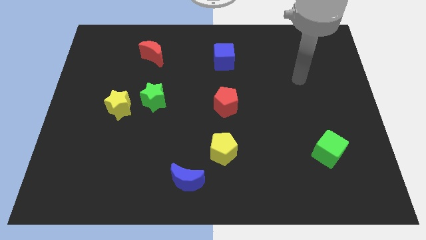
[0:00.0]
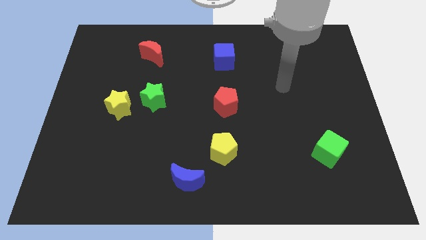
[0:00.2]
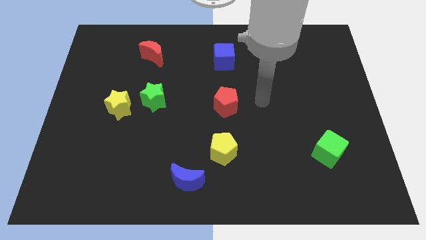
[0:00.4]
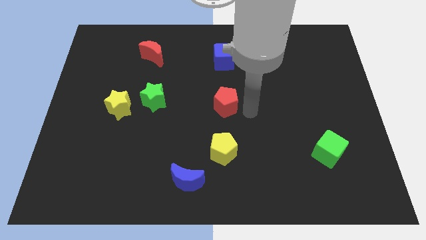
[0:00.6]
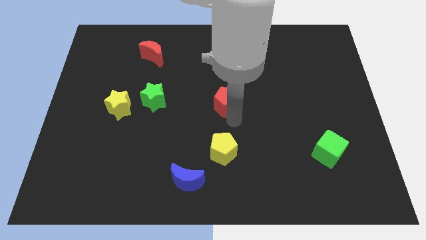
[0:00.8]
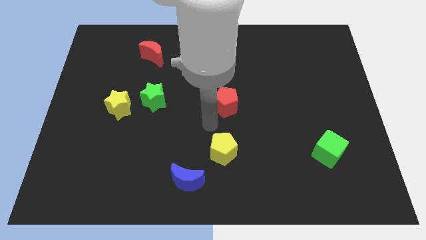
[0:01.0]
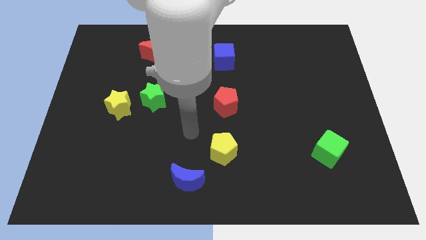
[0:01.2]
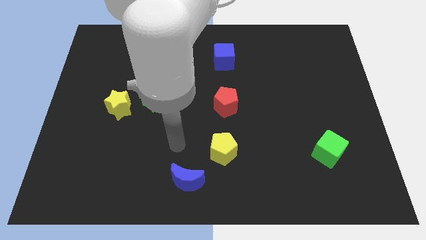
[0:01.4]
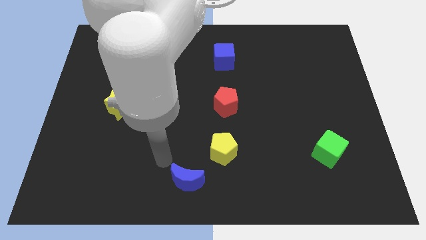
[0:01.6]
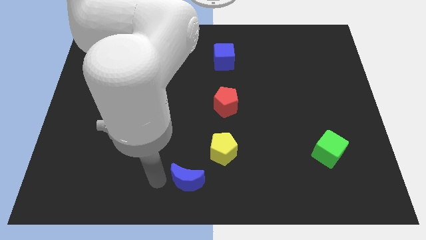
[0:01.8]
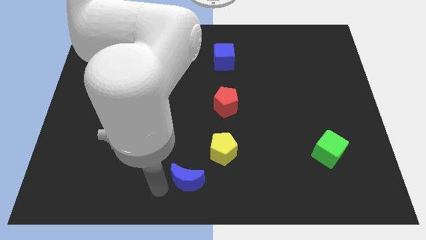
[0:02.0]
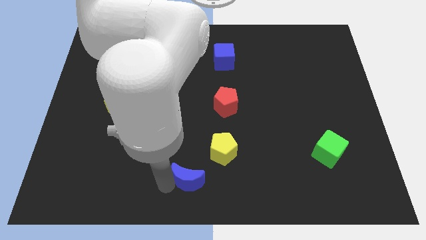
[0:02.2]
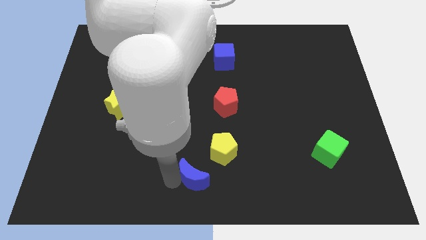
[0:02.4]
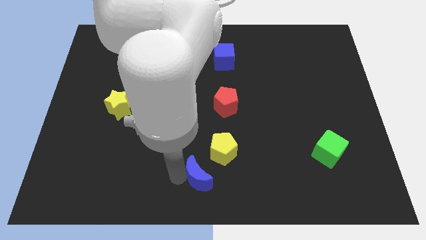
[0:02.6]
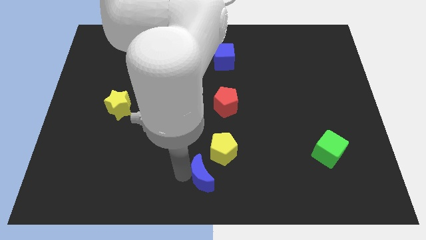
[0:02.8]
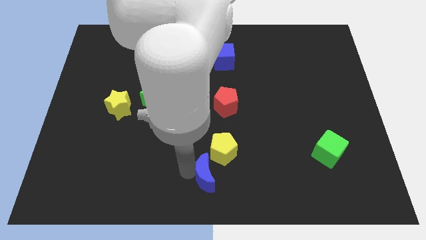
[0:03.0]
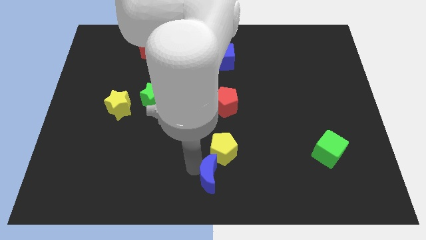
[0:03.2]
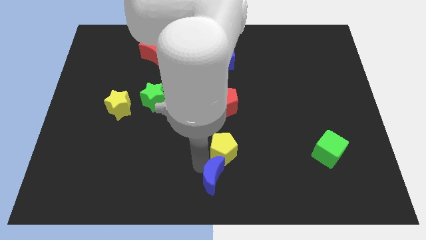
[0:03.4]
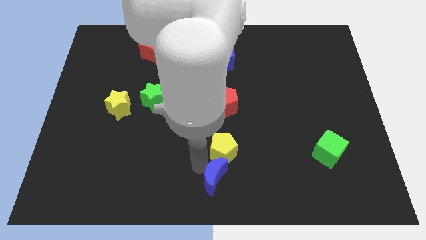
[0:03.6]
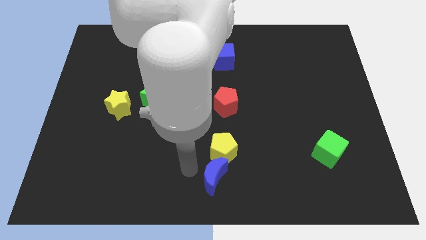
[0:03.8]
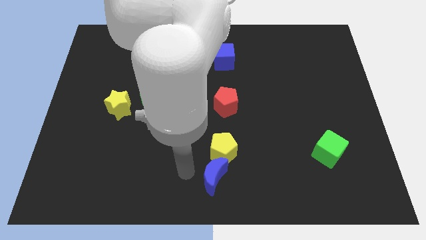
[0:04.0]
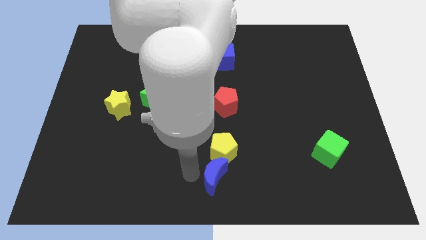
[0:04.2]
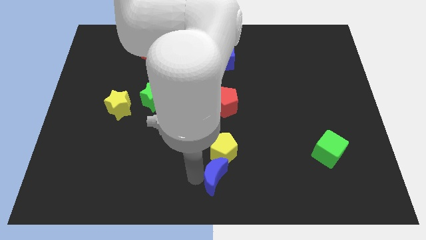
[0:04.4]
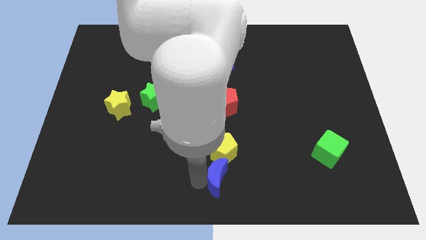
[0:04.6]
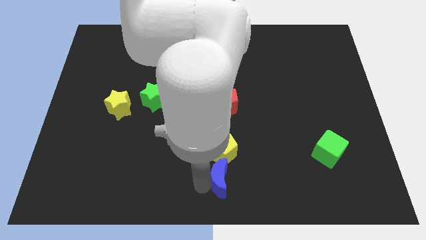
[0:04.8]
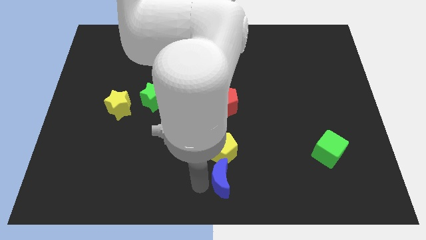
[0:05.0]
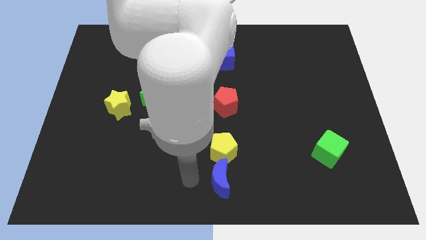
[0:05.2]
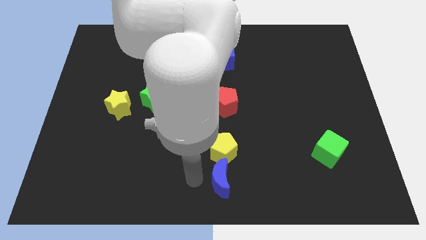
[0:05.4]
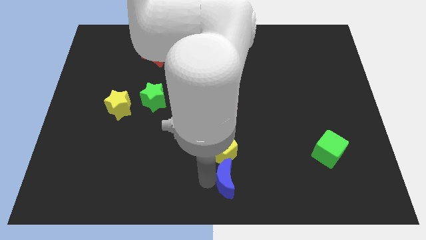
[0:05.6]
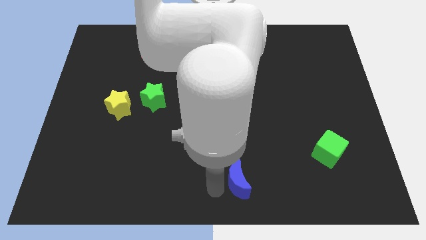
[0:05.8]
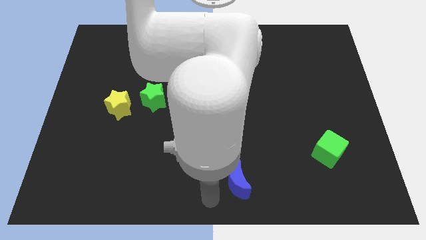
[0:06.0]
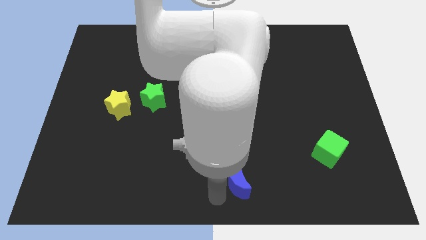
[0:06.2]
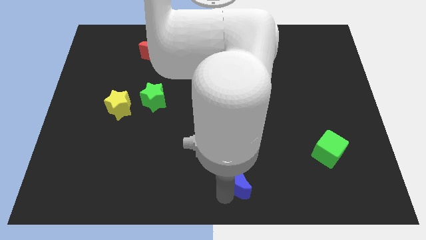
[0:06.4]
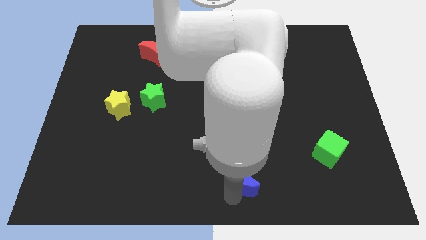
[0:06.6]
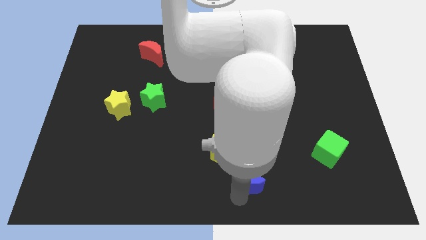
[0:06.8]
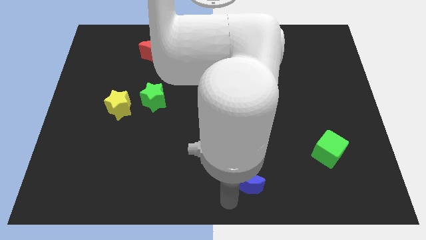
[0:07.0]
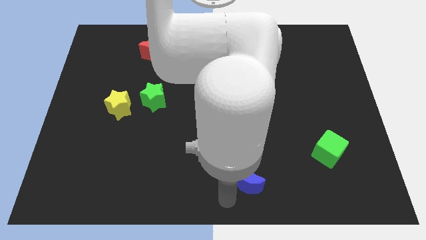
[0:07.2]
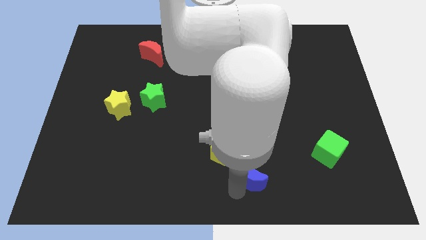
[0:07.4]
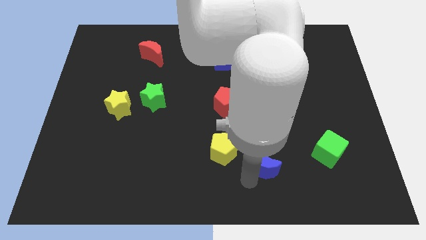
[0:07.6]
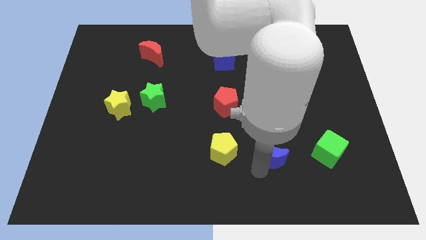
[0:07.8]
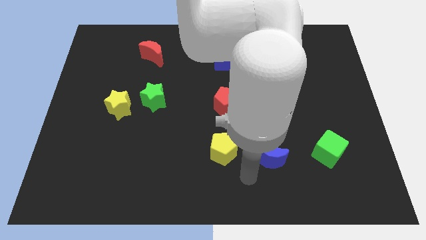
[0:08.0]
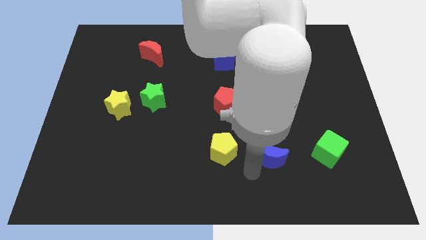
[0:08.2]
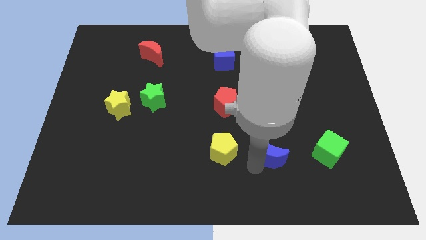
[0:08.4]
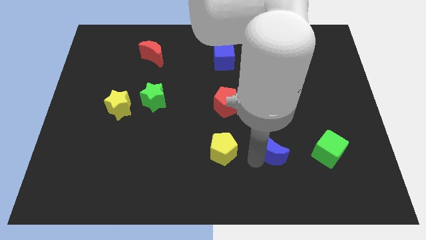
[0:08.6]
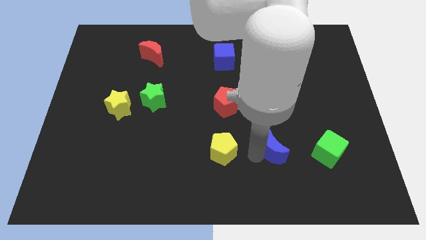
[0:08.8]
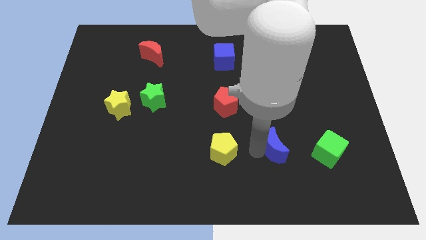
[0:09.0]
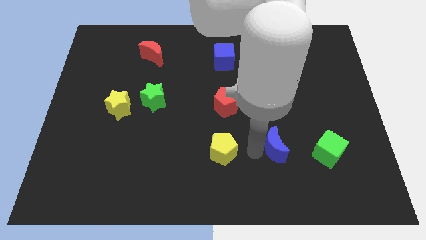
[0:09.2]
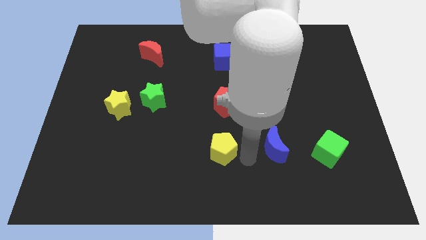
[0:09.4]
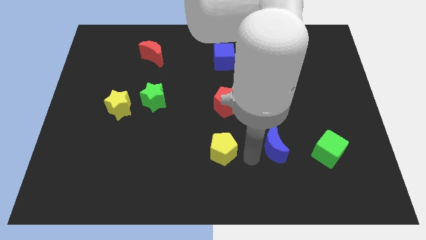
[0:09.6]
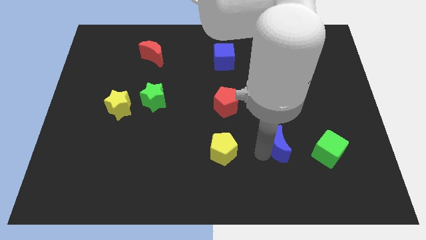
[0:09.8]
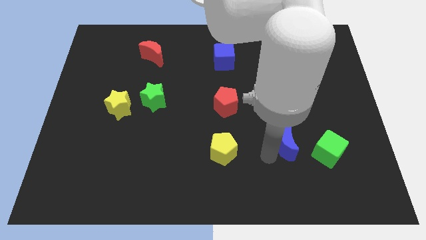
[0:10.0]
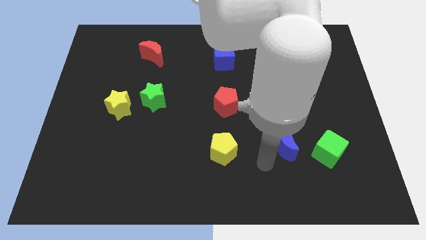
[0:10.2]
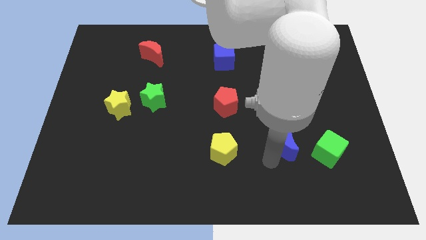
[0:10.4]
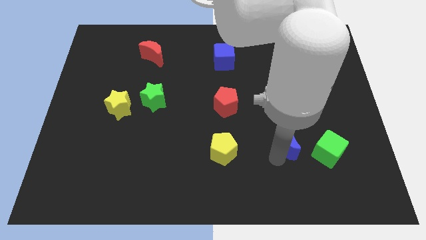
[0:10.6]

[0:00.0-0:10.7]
push the blue moon to the top left side of the green cube

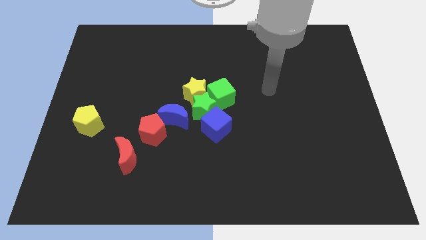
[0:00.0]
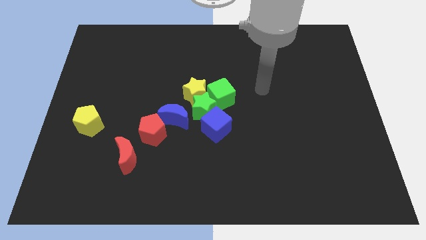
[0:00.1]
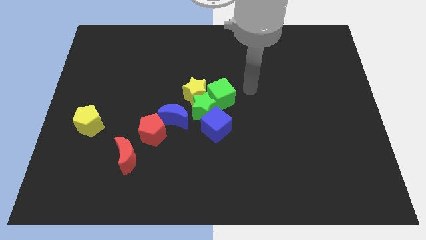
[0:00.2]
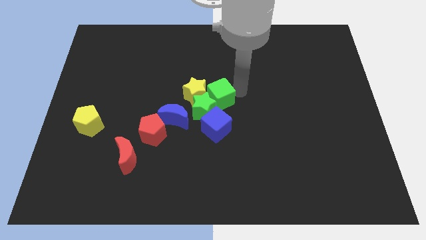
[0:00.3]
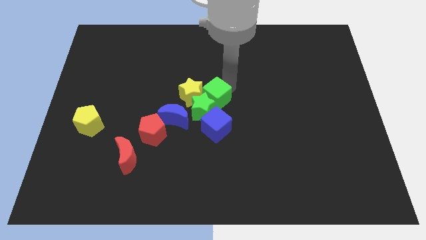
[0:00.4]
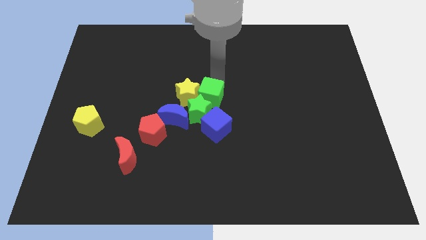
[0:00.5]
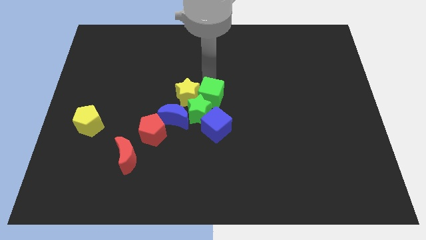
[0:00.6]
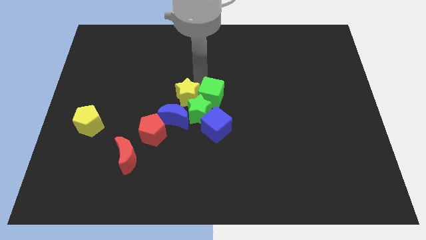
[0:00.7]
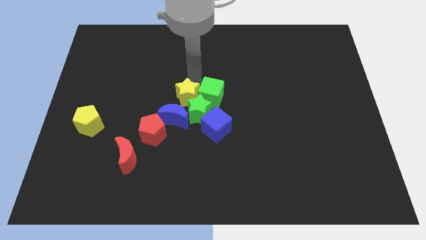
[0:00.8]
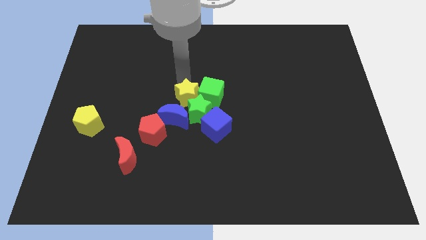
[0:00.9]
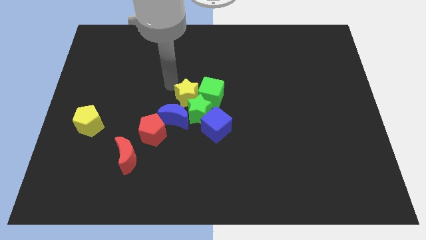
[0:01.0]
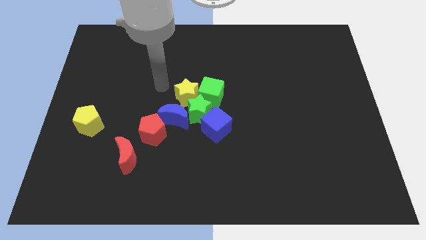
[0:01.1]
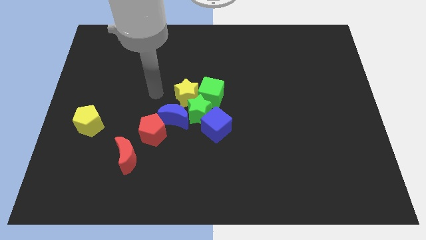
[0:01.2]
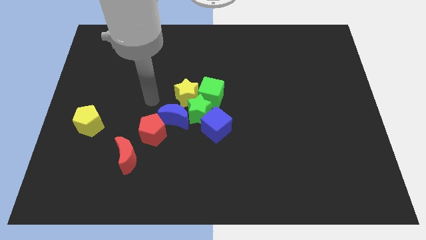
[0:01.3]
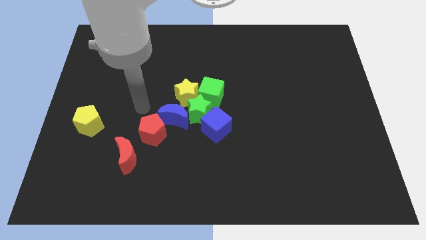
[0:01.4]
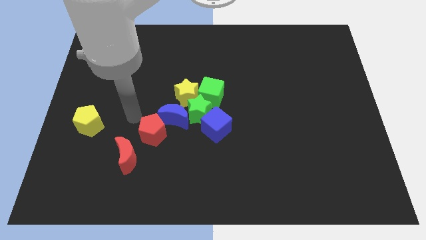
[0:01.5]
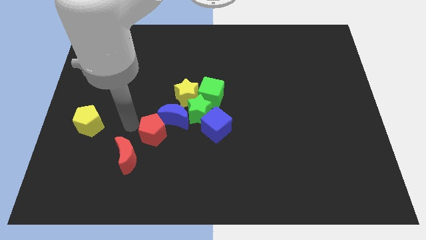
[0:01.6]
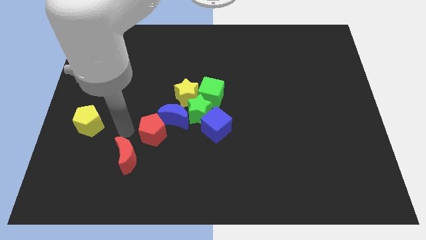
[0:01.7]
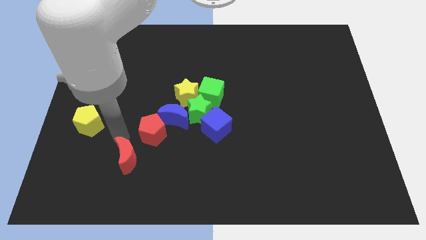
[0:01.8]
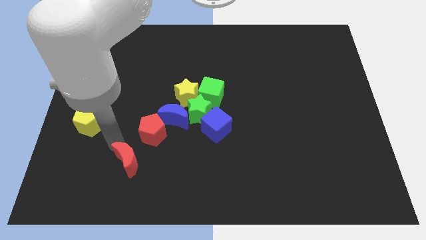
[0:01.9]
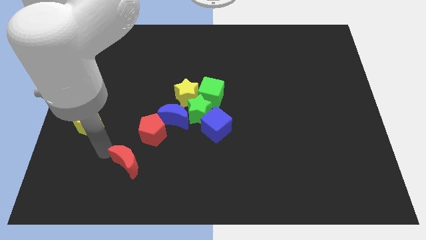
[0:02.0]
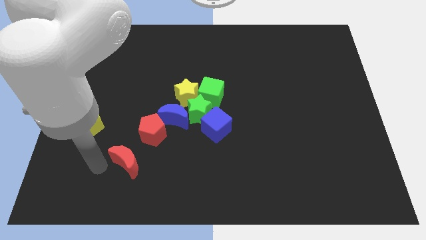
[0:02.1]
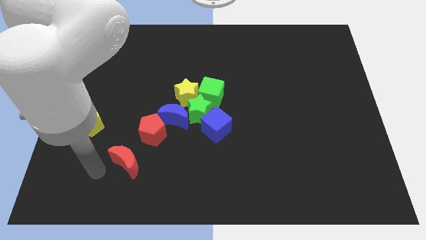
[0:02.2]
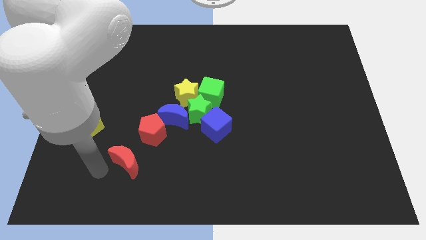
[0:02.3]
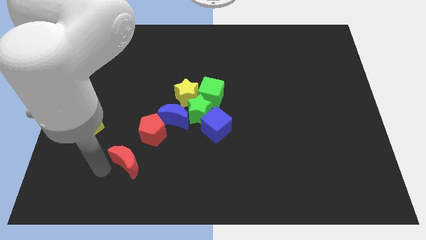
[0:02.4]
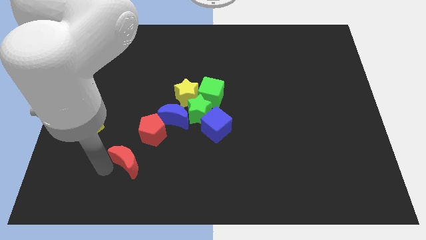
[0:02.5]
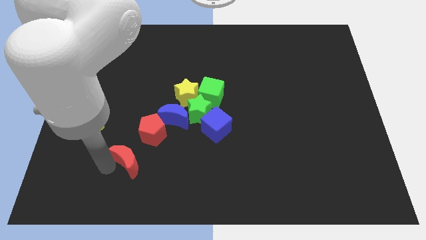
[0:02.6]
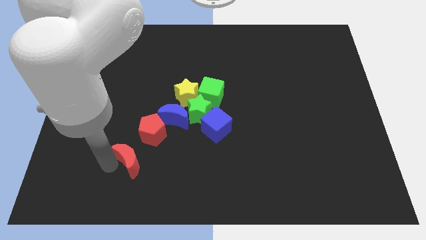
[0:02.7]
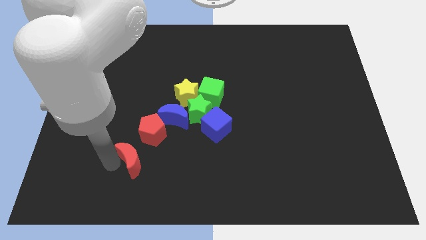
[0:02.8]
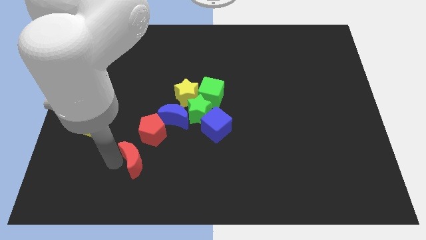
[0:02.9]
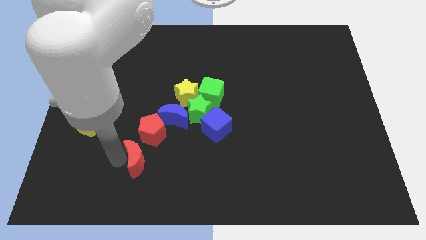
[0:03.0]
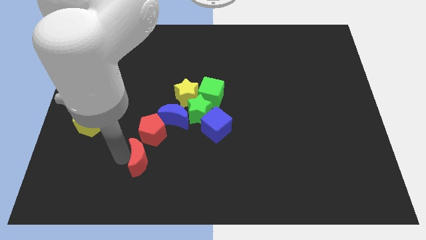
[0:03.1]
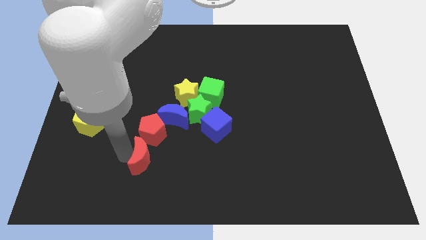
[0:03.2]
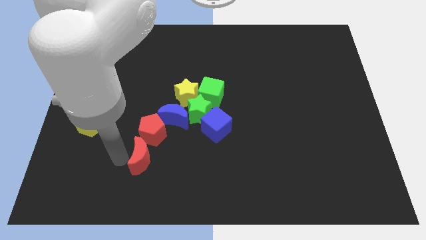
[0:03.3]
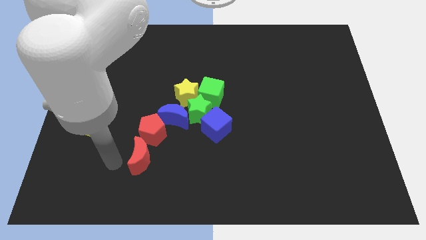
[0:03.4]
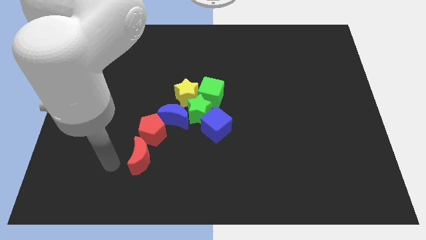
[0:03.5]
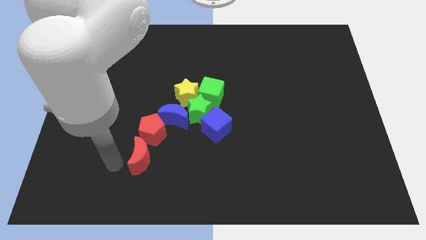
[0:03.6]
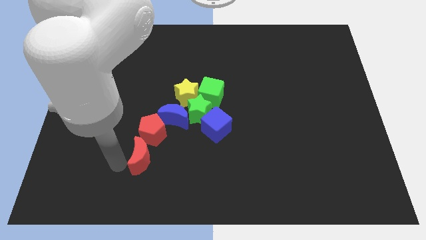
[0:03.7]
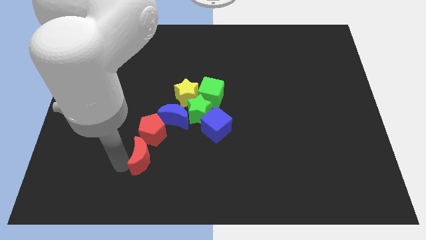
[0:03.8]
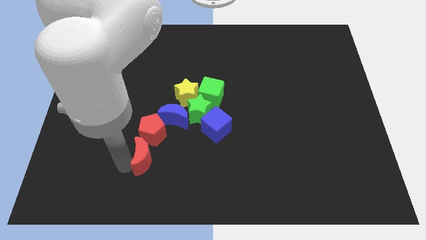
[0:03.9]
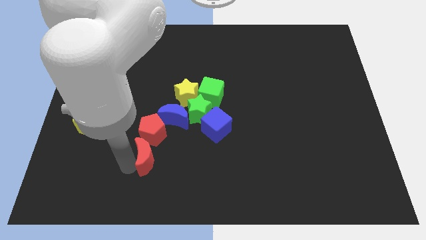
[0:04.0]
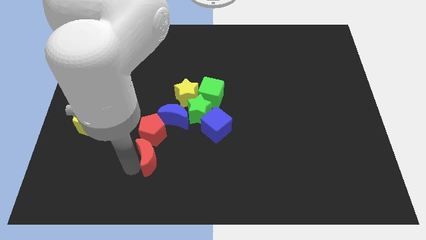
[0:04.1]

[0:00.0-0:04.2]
put the red moon to the bottom right of the red pentagon
